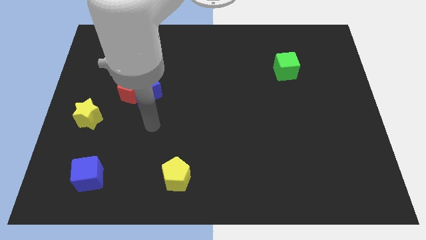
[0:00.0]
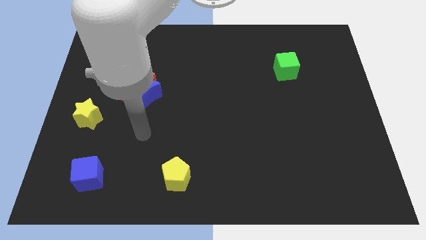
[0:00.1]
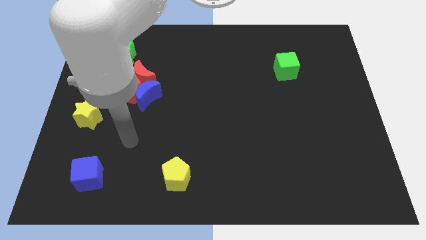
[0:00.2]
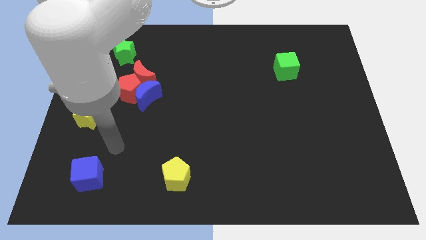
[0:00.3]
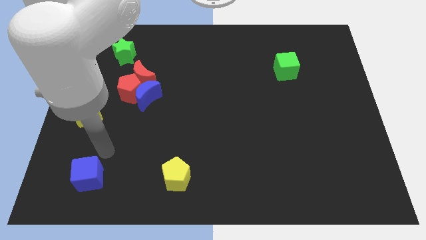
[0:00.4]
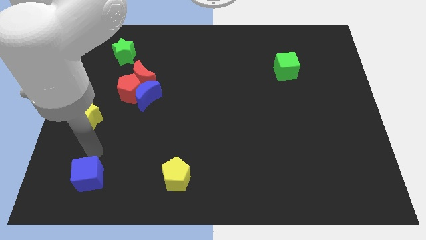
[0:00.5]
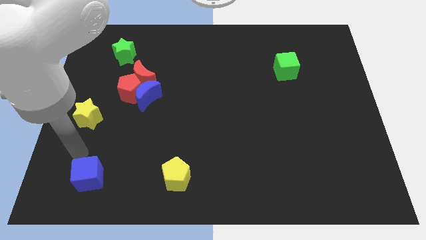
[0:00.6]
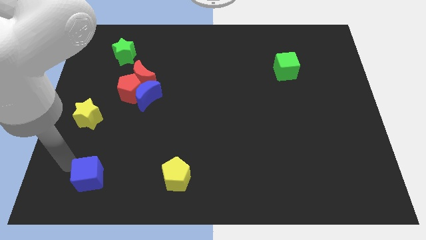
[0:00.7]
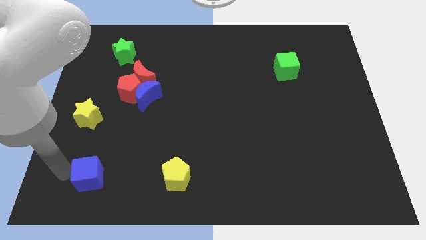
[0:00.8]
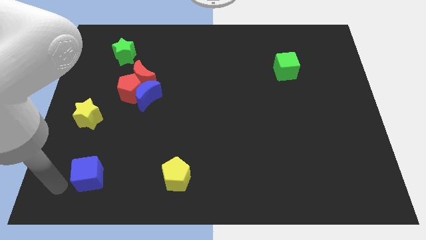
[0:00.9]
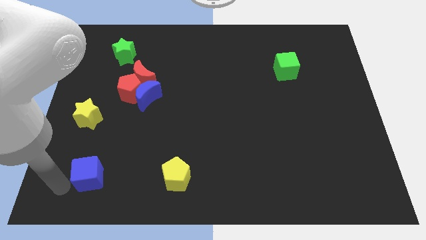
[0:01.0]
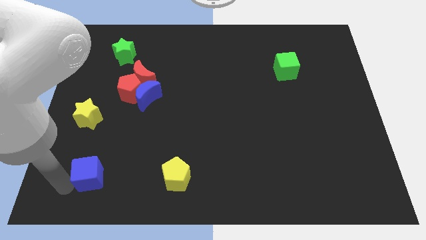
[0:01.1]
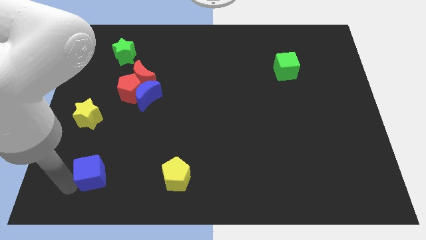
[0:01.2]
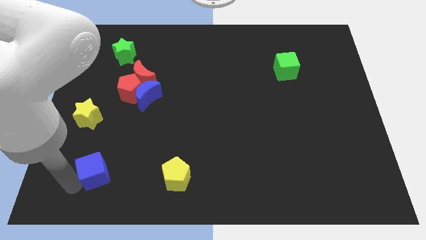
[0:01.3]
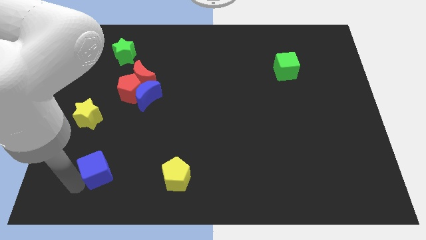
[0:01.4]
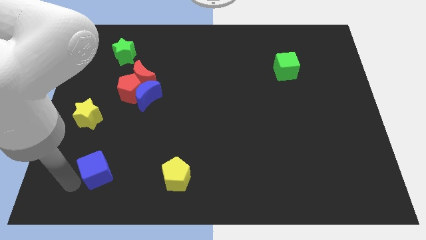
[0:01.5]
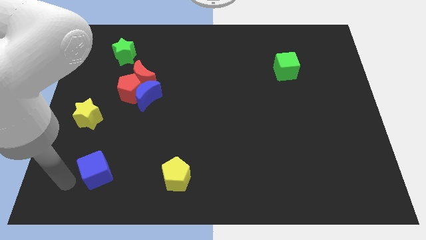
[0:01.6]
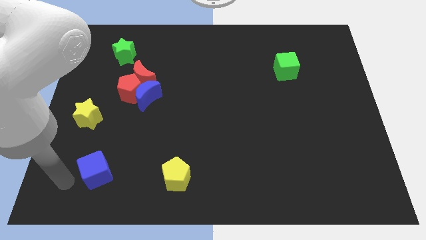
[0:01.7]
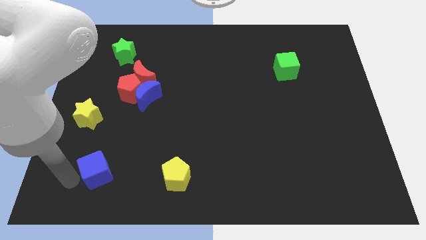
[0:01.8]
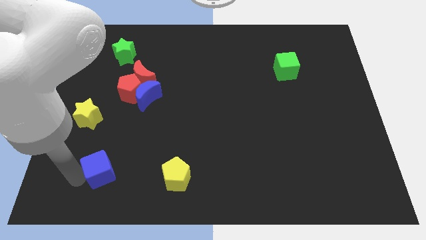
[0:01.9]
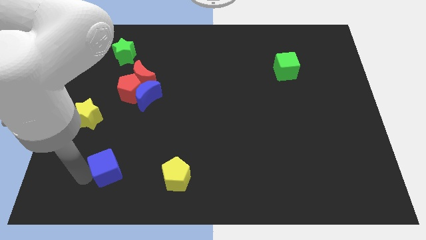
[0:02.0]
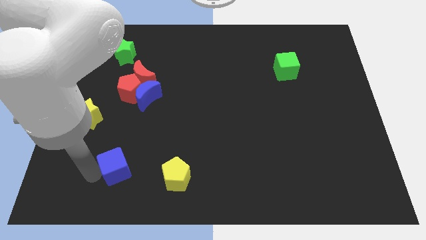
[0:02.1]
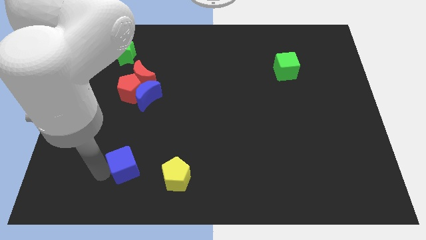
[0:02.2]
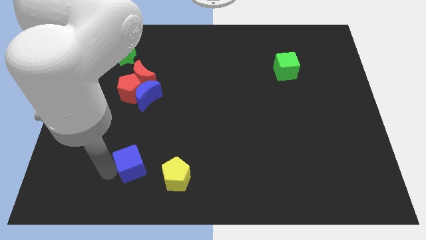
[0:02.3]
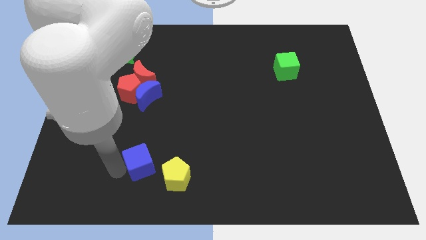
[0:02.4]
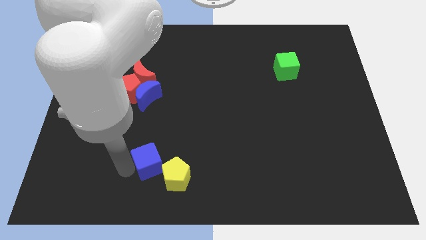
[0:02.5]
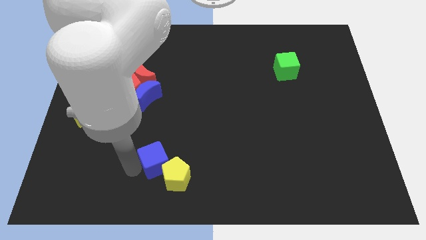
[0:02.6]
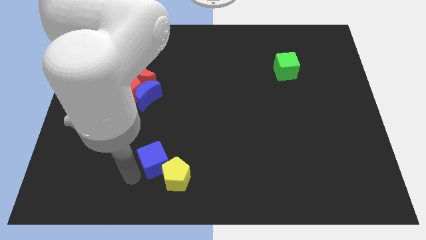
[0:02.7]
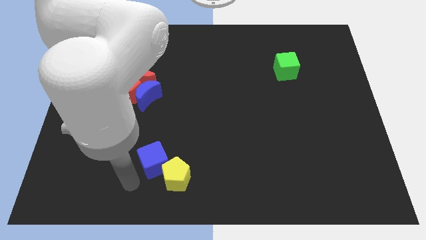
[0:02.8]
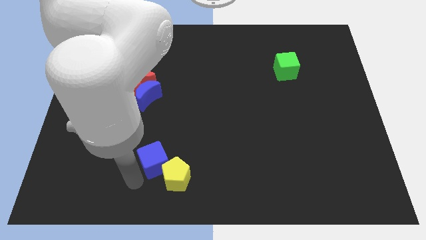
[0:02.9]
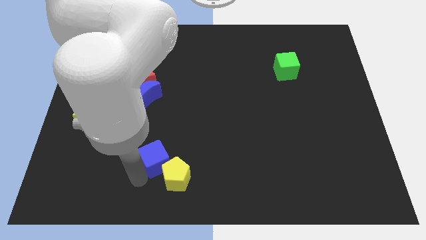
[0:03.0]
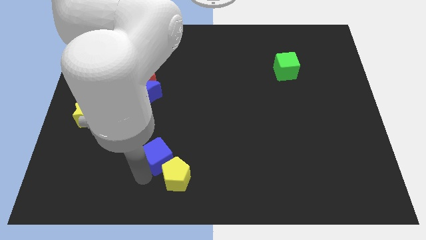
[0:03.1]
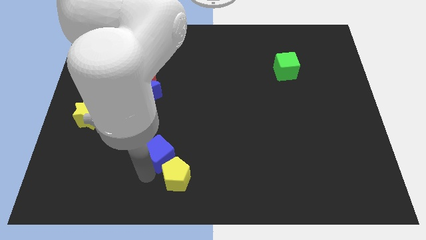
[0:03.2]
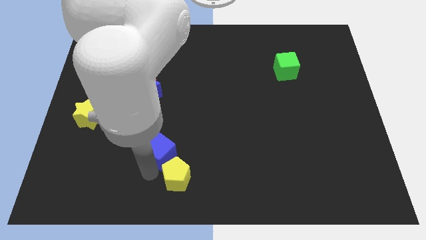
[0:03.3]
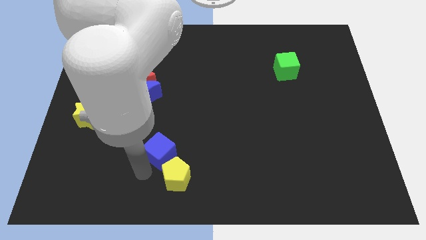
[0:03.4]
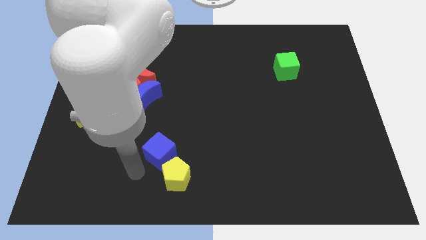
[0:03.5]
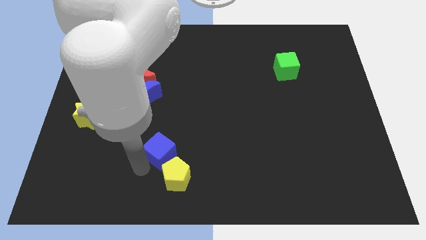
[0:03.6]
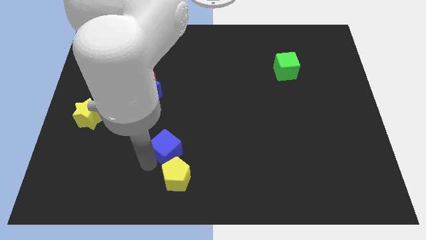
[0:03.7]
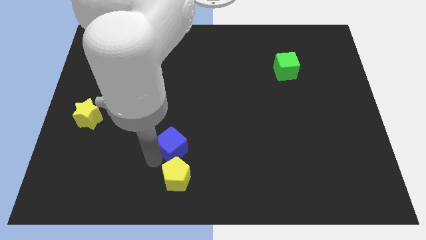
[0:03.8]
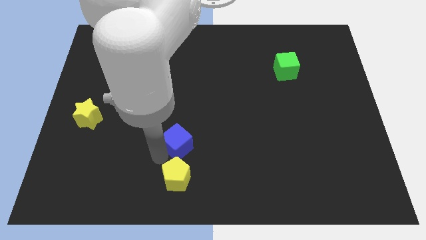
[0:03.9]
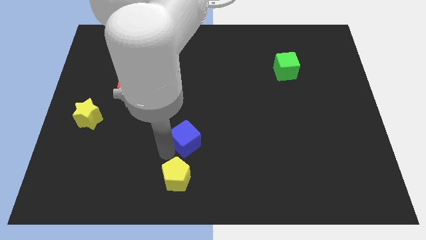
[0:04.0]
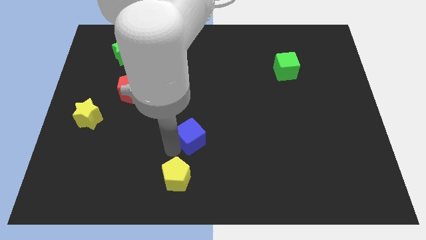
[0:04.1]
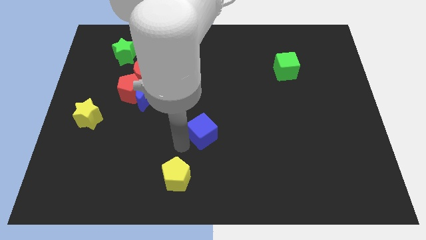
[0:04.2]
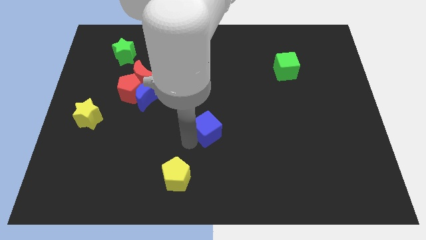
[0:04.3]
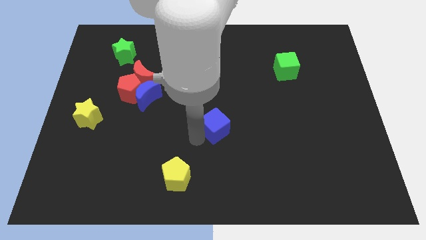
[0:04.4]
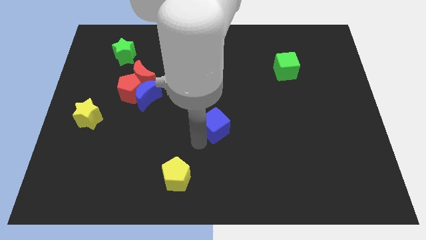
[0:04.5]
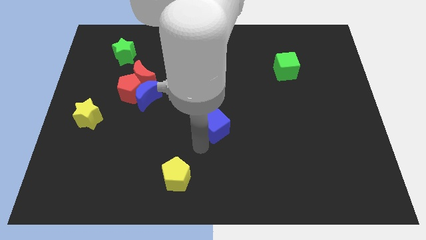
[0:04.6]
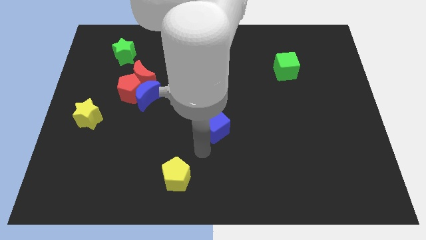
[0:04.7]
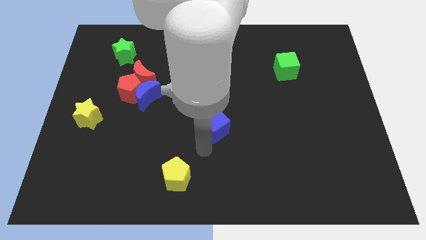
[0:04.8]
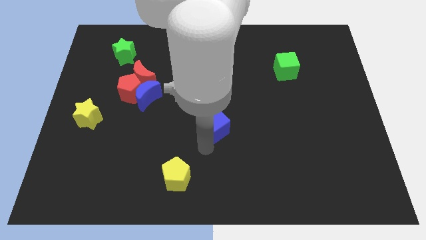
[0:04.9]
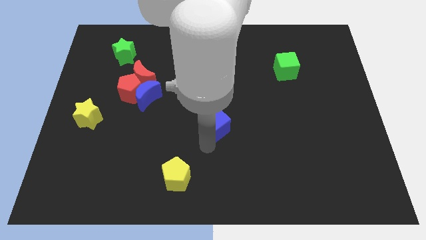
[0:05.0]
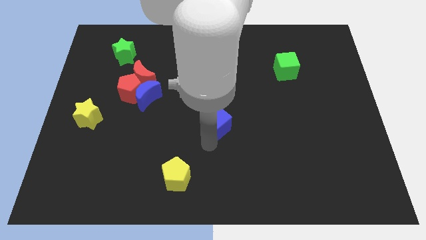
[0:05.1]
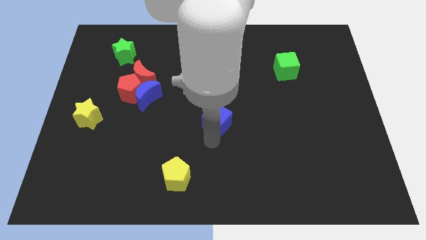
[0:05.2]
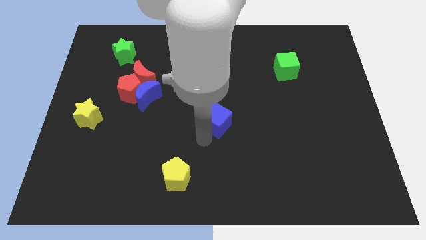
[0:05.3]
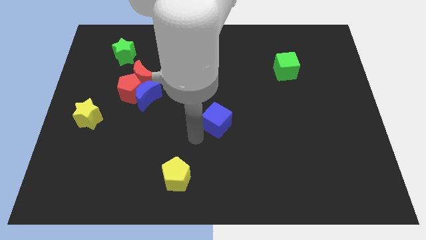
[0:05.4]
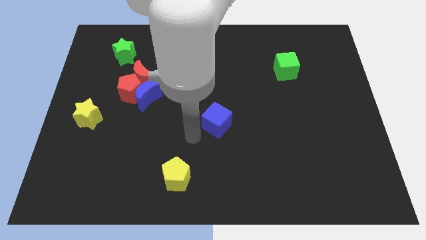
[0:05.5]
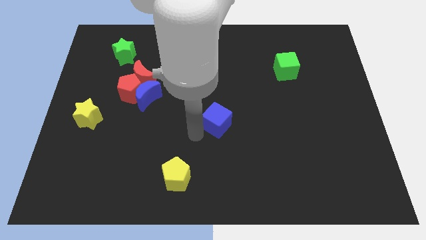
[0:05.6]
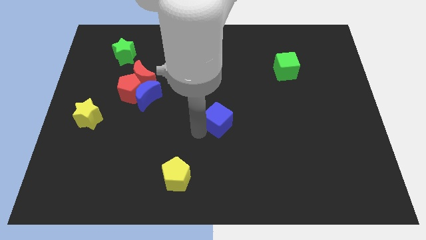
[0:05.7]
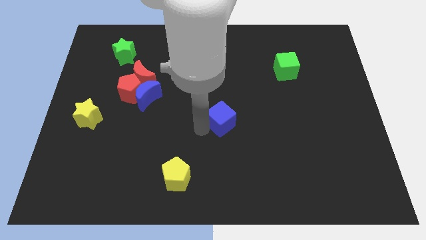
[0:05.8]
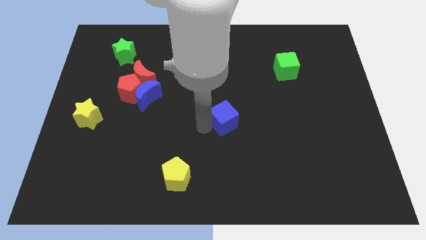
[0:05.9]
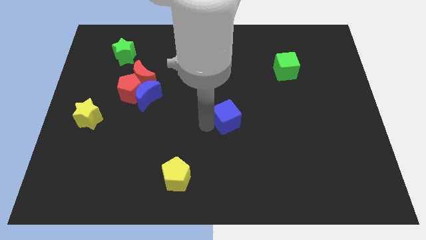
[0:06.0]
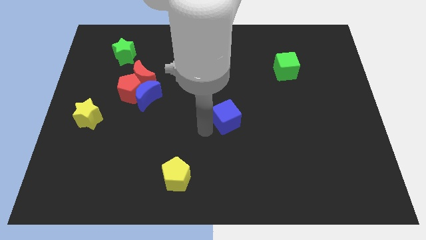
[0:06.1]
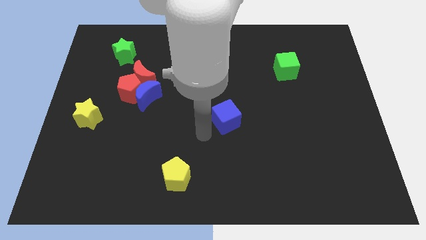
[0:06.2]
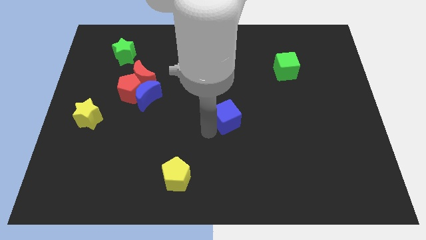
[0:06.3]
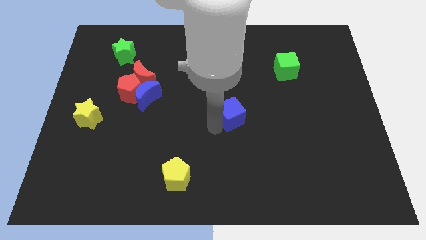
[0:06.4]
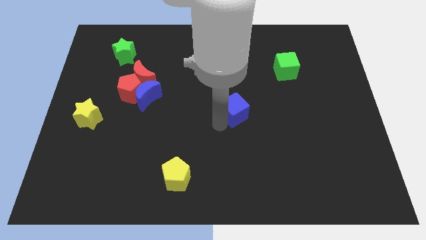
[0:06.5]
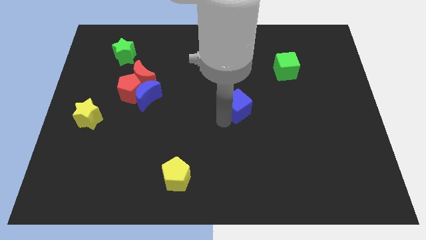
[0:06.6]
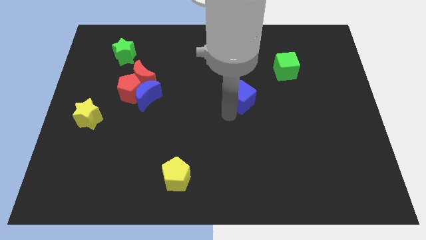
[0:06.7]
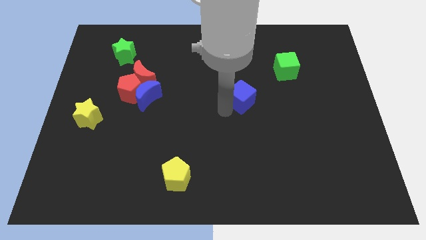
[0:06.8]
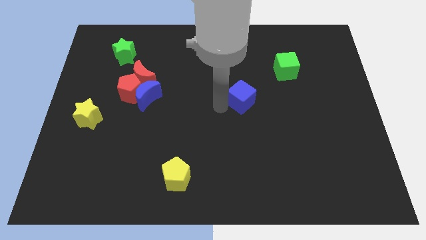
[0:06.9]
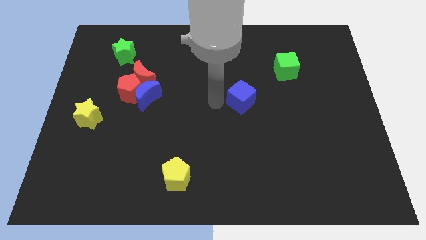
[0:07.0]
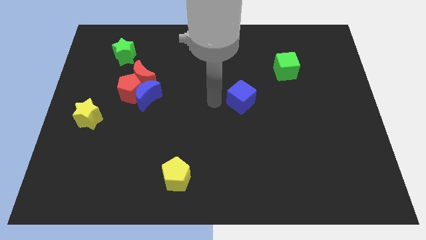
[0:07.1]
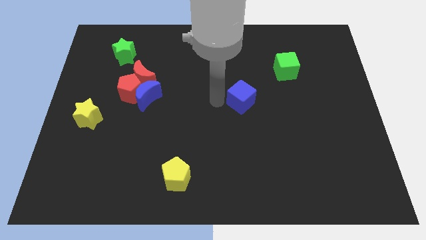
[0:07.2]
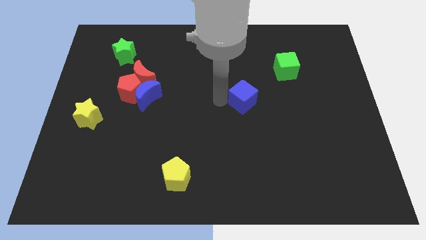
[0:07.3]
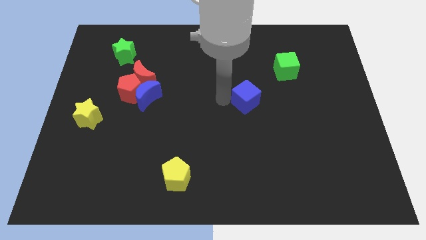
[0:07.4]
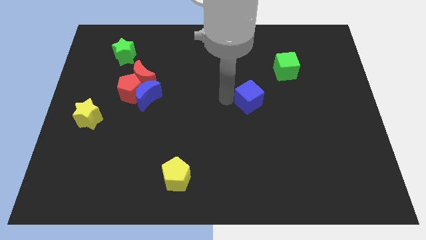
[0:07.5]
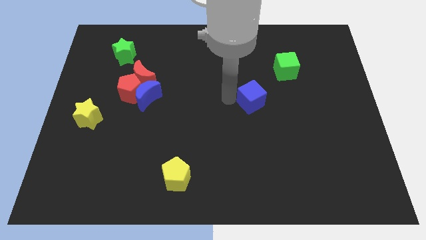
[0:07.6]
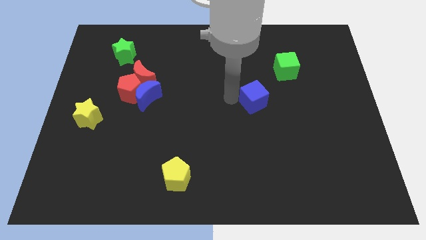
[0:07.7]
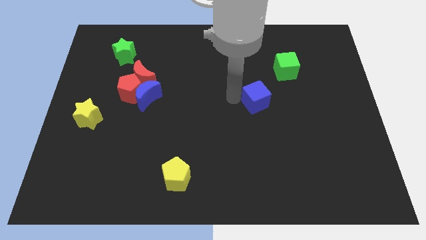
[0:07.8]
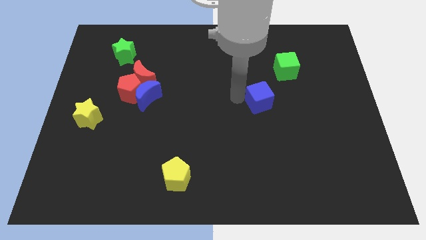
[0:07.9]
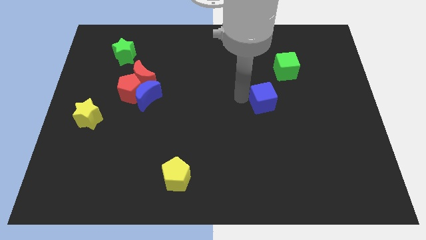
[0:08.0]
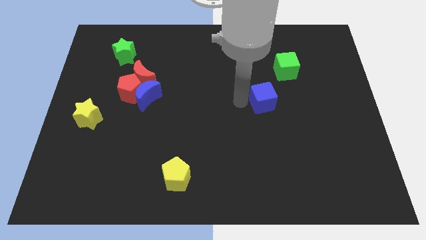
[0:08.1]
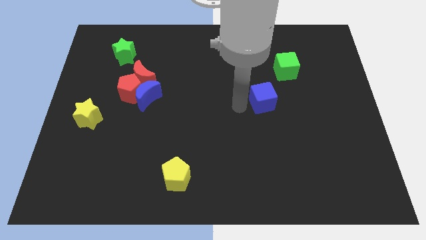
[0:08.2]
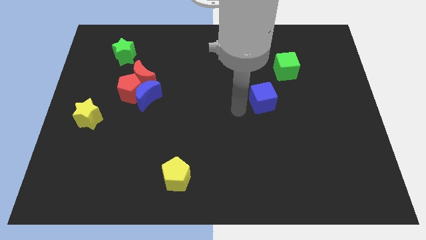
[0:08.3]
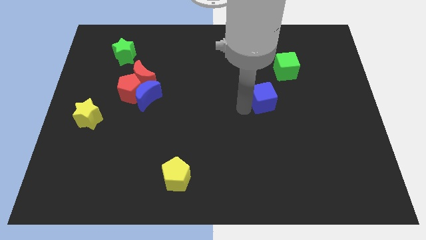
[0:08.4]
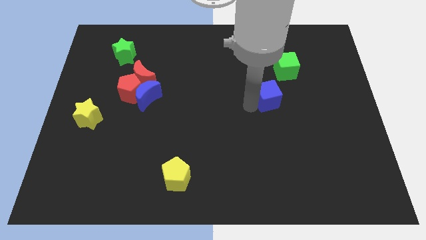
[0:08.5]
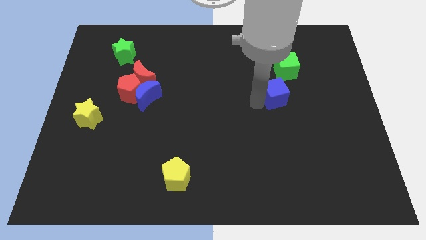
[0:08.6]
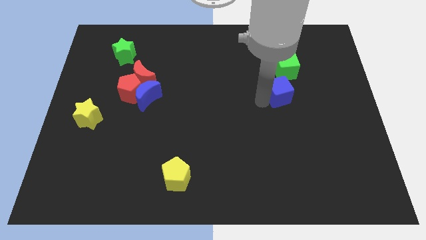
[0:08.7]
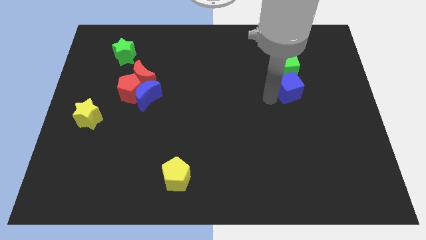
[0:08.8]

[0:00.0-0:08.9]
put the blue cube to the bottom right side of the green cube
